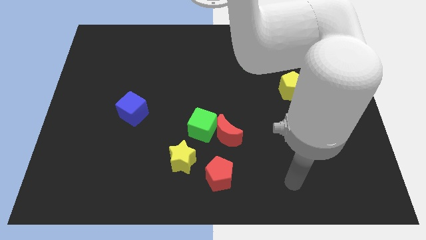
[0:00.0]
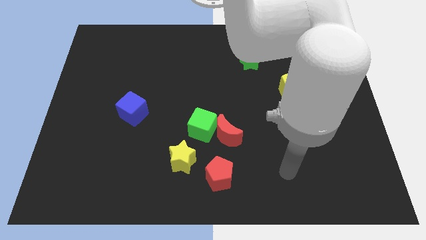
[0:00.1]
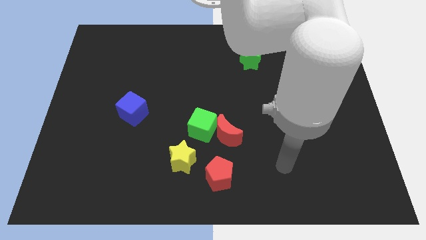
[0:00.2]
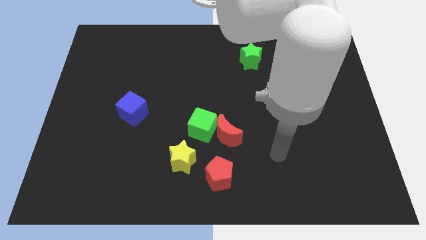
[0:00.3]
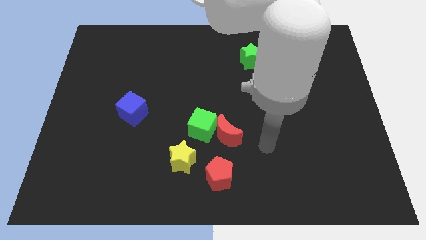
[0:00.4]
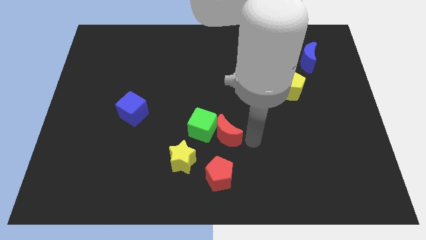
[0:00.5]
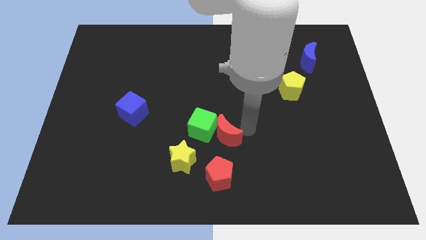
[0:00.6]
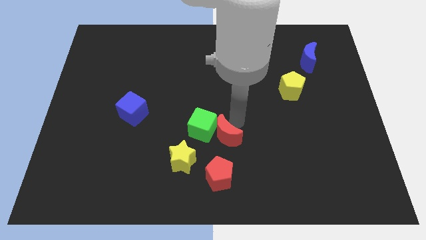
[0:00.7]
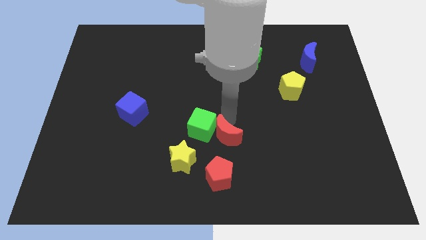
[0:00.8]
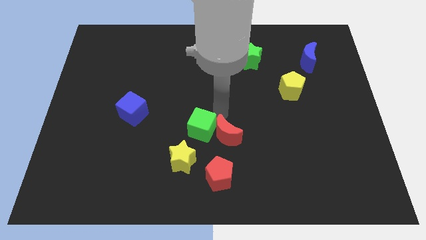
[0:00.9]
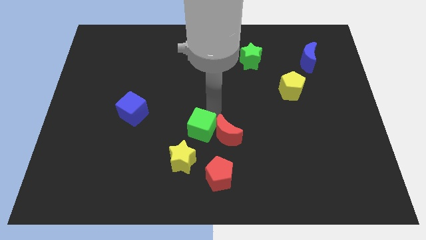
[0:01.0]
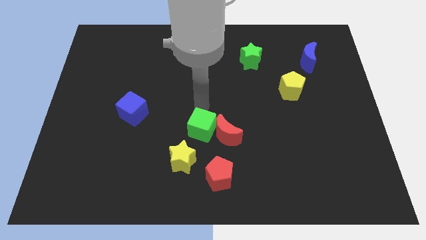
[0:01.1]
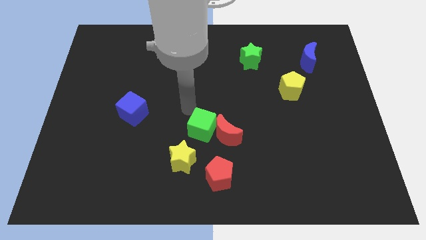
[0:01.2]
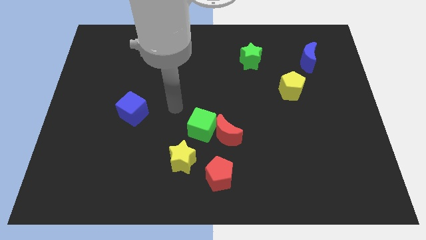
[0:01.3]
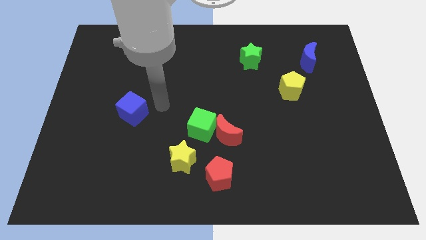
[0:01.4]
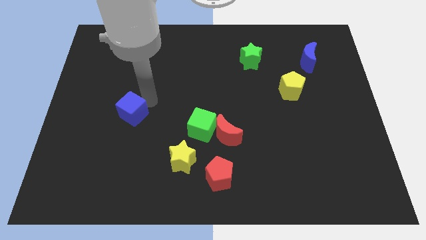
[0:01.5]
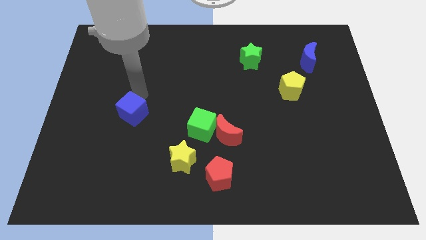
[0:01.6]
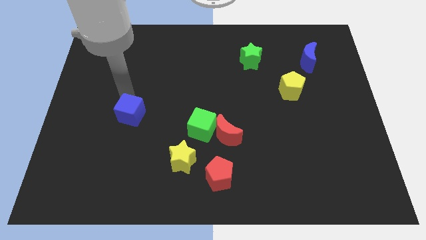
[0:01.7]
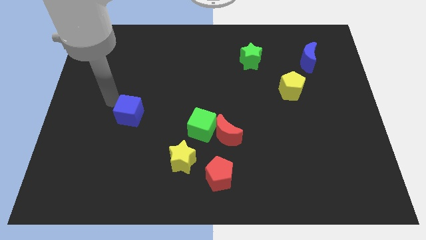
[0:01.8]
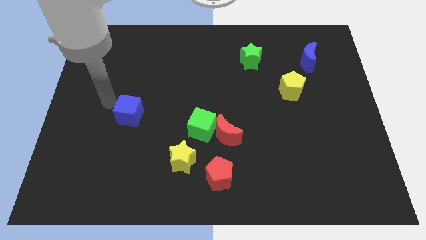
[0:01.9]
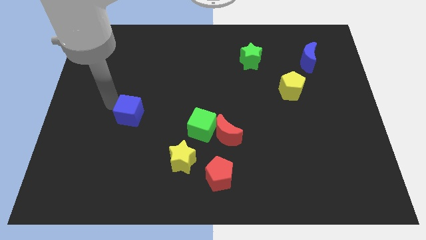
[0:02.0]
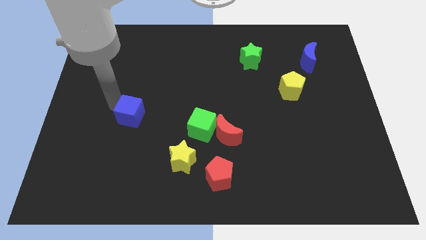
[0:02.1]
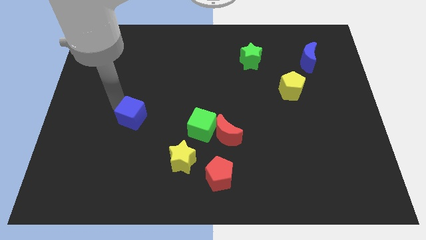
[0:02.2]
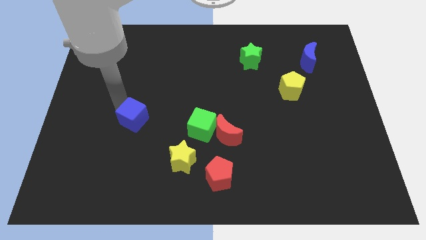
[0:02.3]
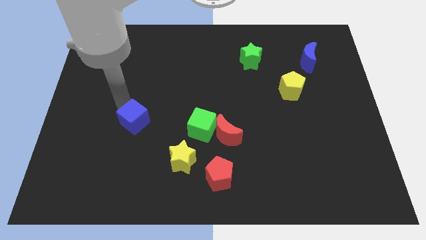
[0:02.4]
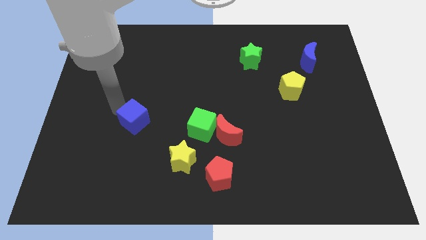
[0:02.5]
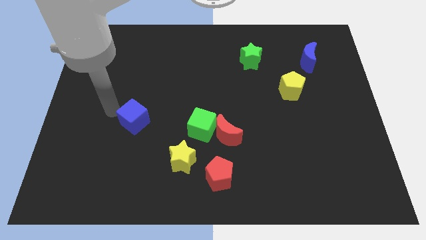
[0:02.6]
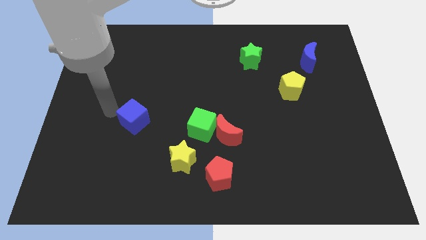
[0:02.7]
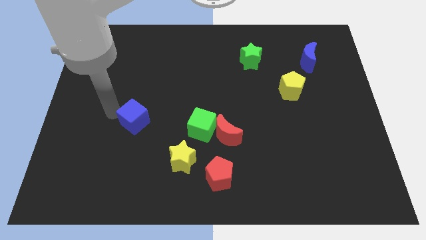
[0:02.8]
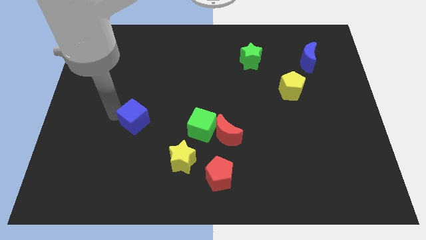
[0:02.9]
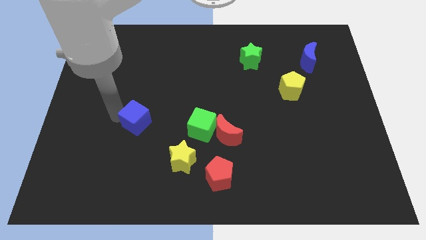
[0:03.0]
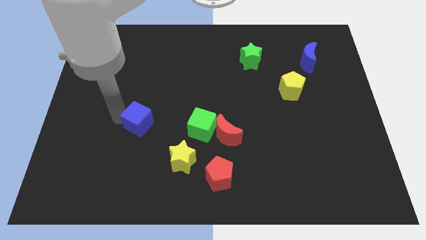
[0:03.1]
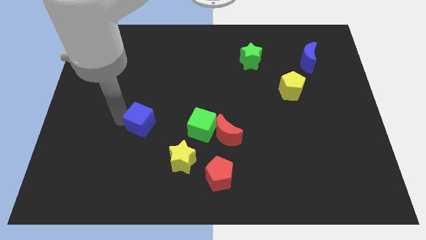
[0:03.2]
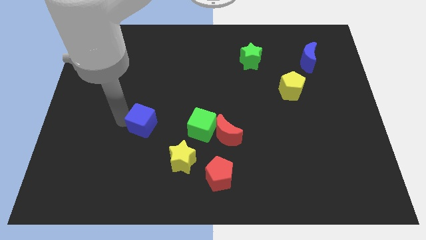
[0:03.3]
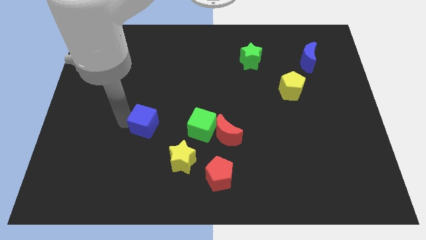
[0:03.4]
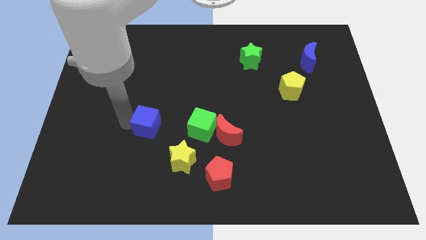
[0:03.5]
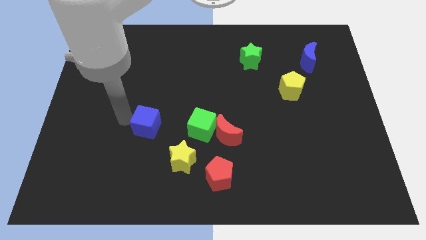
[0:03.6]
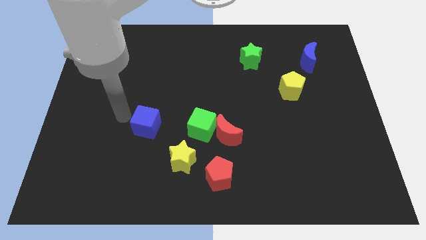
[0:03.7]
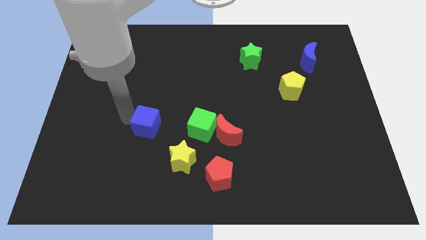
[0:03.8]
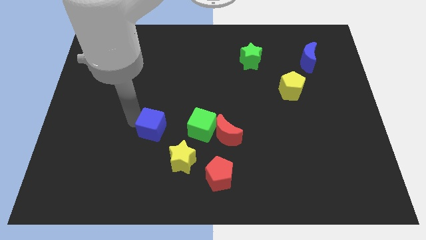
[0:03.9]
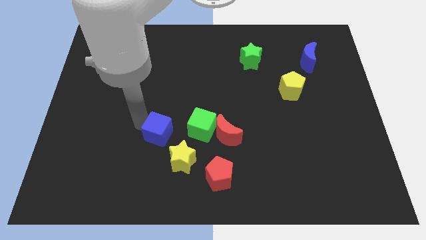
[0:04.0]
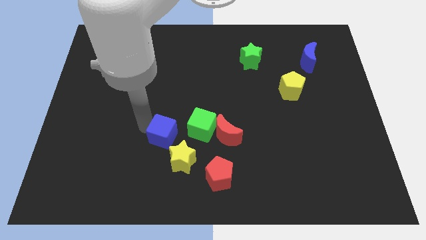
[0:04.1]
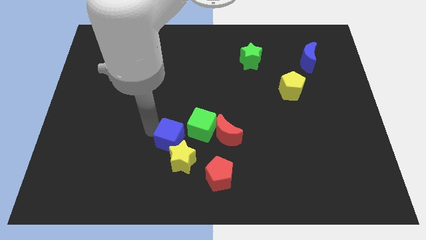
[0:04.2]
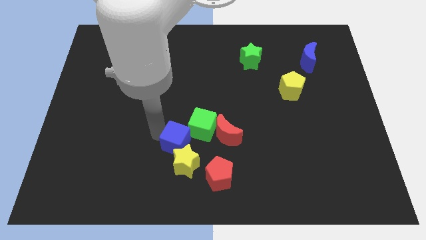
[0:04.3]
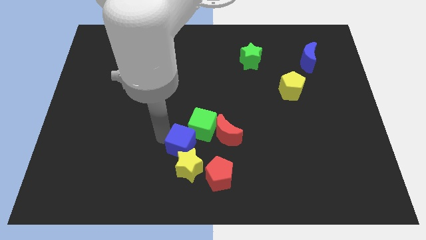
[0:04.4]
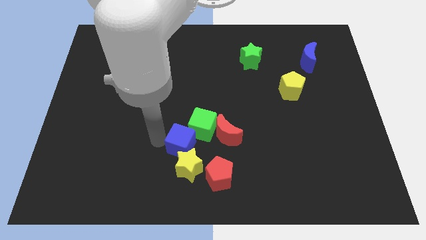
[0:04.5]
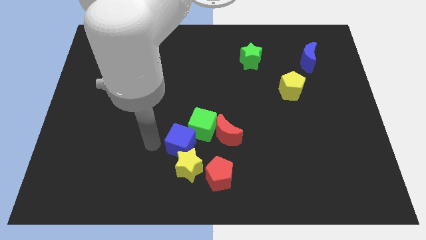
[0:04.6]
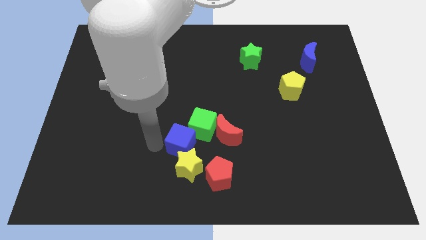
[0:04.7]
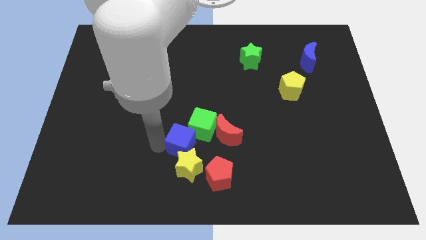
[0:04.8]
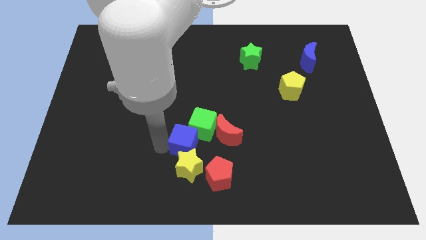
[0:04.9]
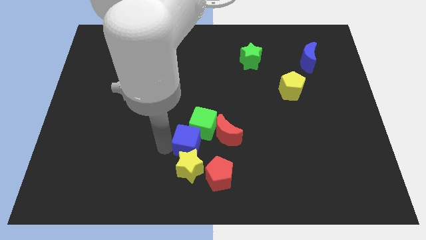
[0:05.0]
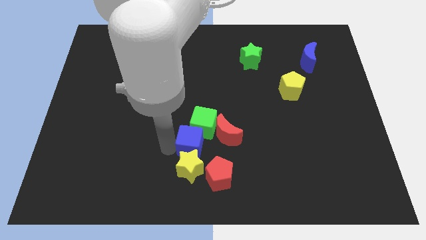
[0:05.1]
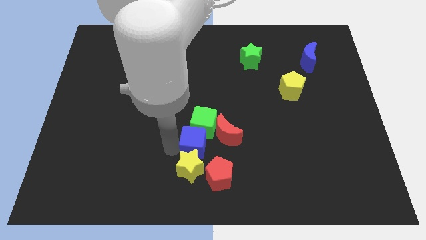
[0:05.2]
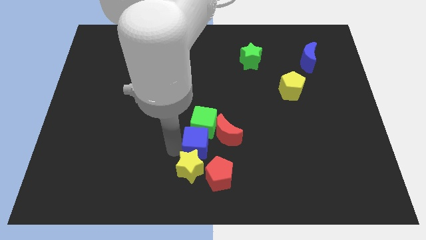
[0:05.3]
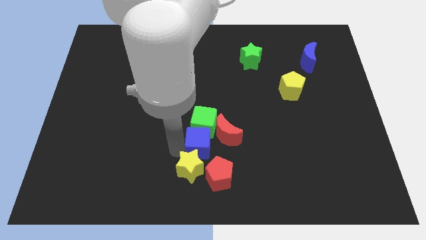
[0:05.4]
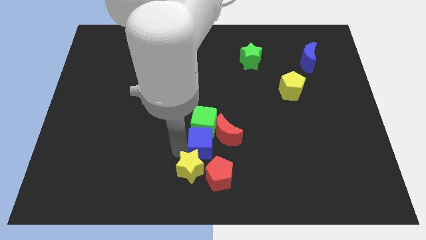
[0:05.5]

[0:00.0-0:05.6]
push the blue cube close to the red moon
